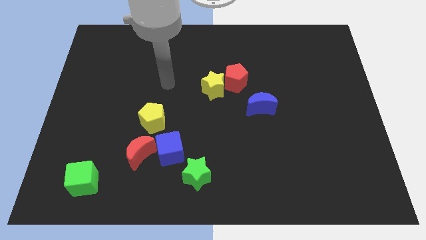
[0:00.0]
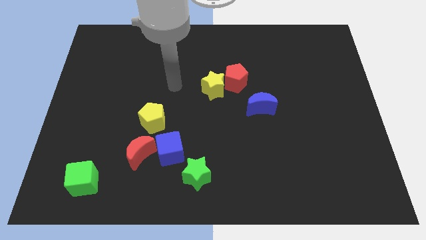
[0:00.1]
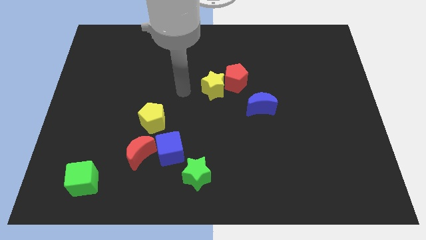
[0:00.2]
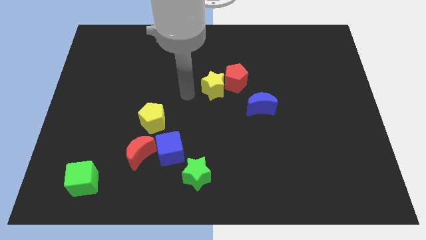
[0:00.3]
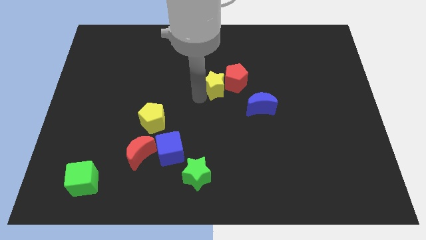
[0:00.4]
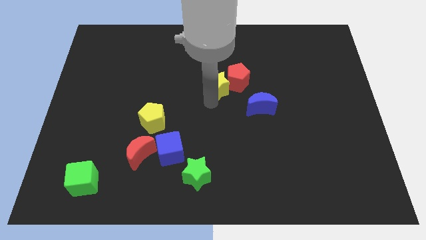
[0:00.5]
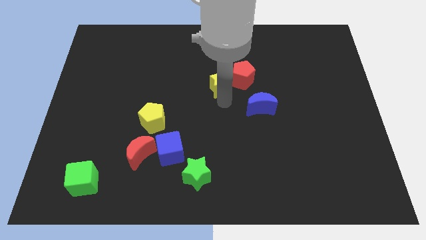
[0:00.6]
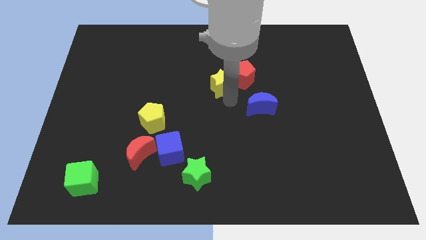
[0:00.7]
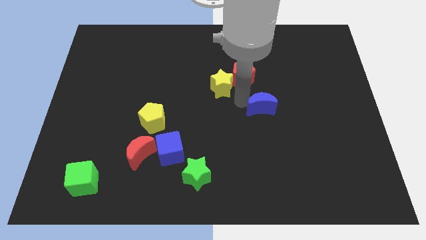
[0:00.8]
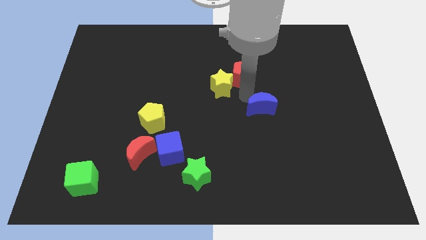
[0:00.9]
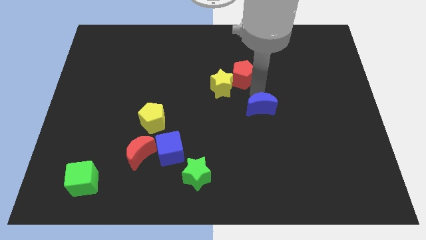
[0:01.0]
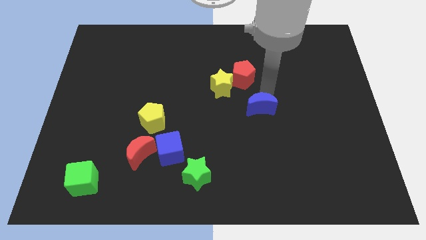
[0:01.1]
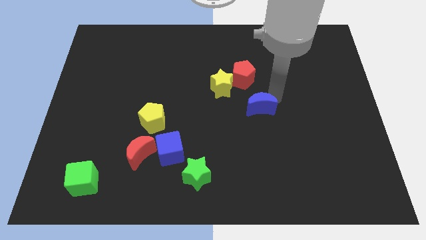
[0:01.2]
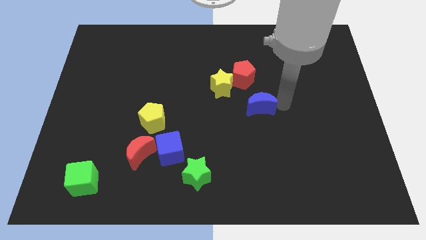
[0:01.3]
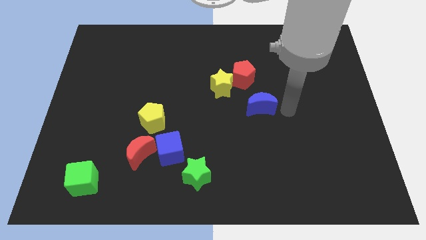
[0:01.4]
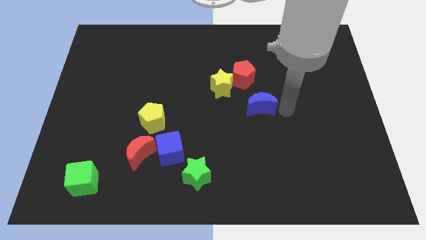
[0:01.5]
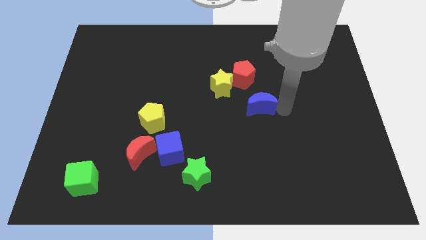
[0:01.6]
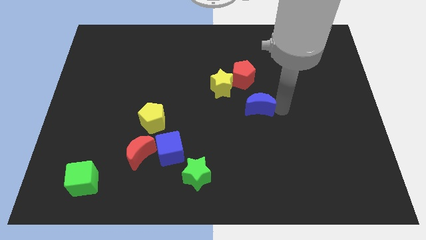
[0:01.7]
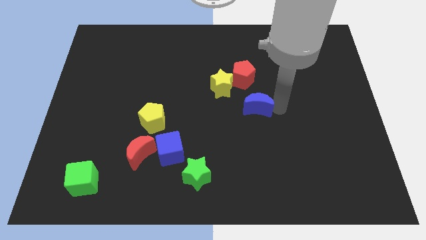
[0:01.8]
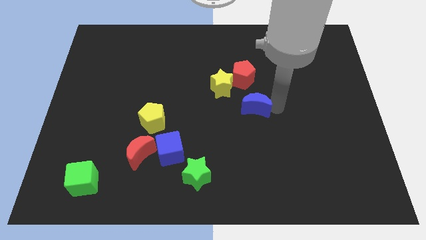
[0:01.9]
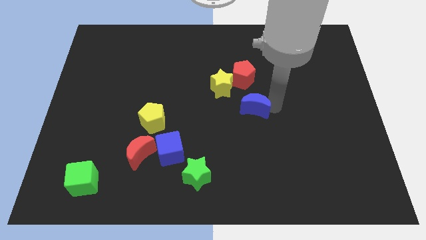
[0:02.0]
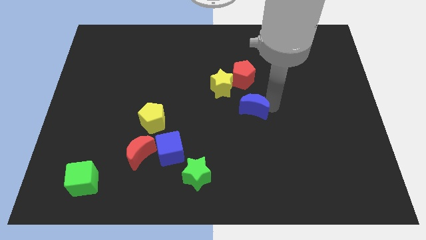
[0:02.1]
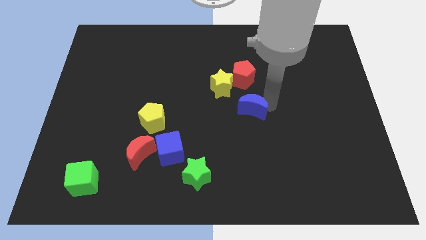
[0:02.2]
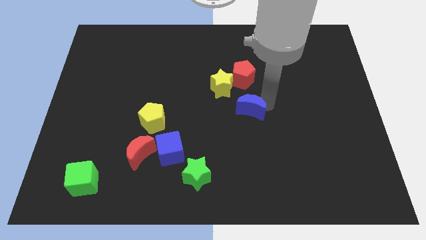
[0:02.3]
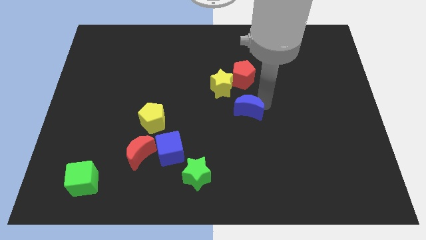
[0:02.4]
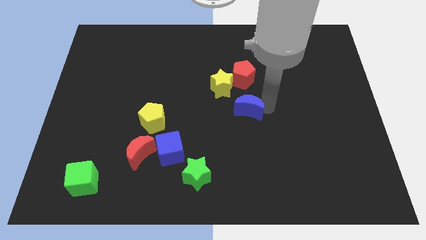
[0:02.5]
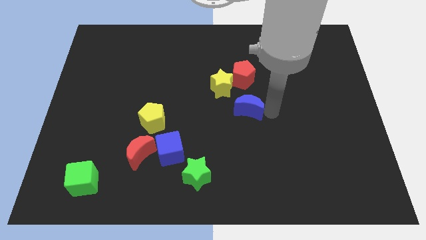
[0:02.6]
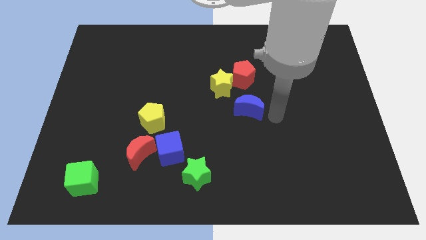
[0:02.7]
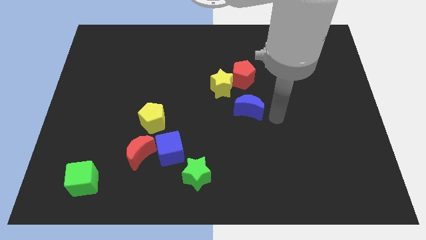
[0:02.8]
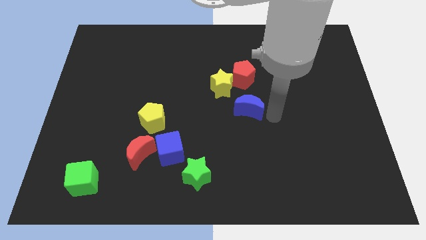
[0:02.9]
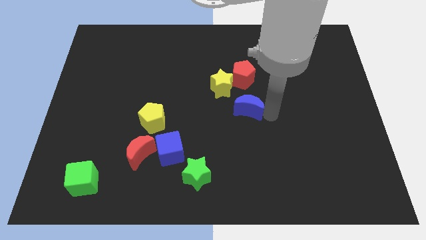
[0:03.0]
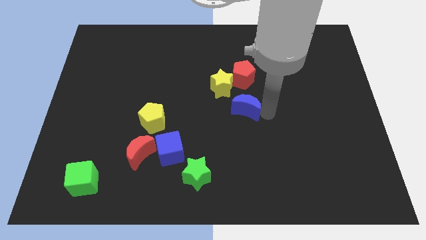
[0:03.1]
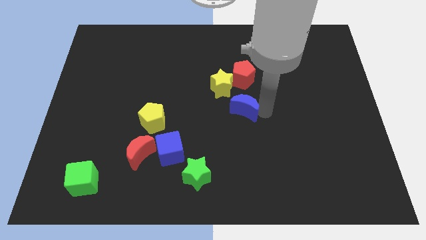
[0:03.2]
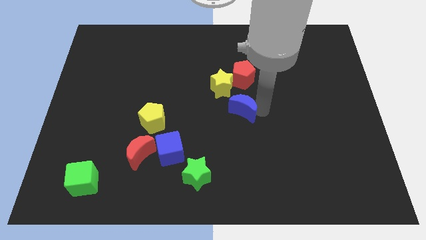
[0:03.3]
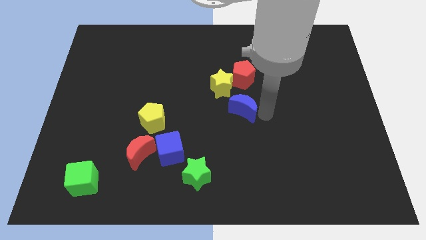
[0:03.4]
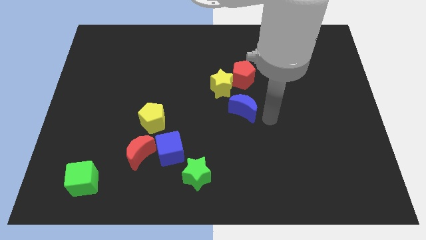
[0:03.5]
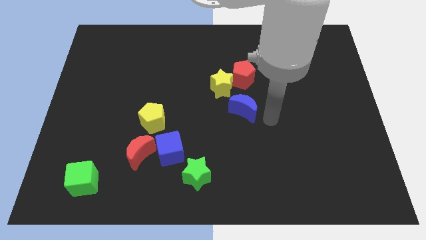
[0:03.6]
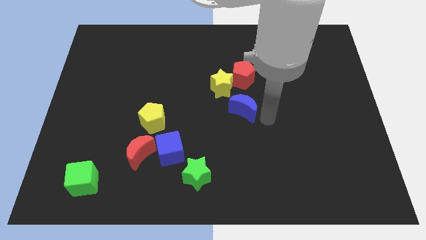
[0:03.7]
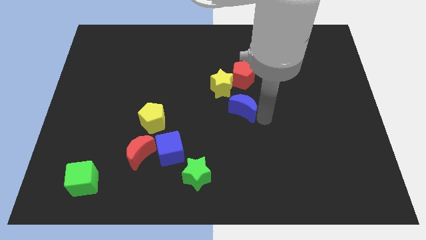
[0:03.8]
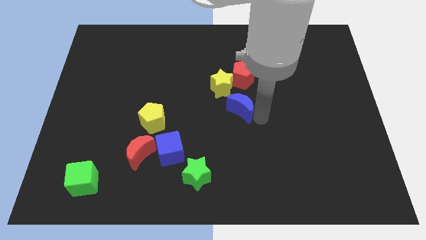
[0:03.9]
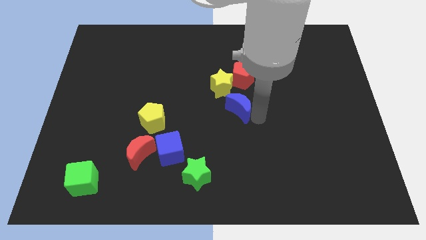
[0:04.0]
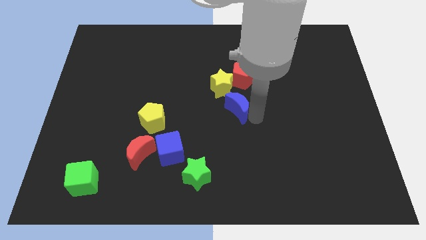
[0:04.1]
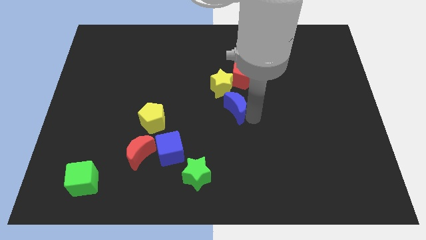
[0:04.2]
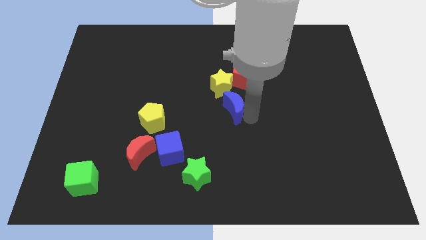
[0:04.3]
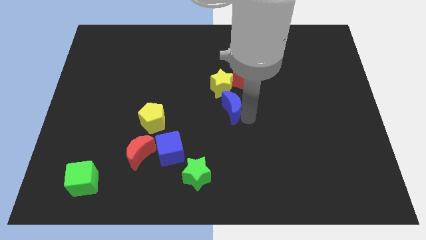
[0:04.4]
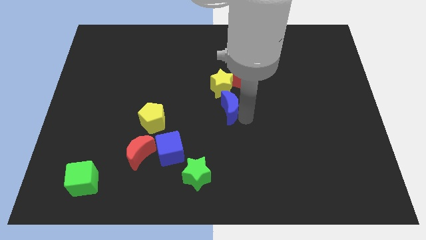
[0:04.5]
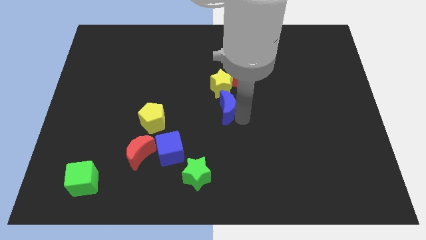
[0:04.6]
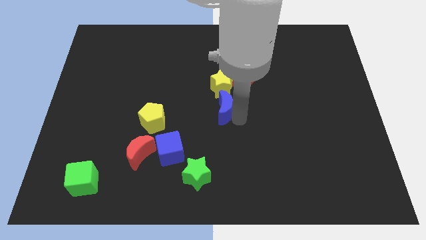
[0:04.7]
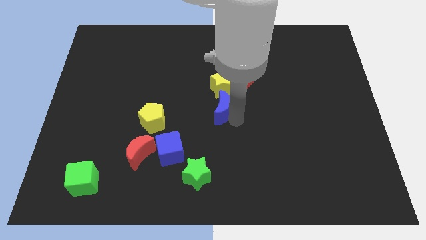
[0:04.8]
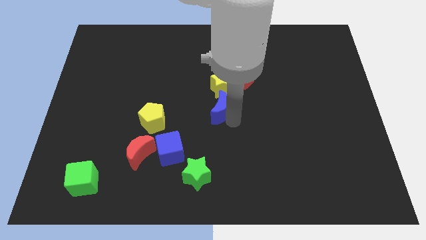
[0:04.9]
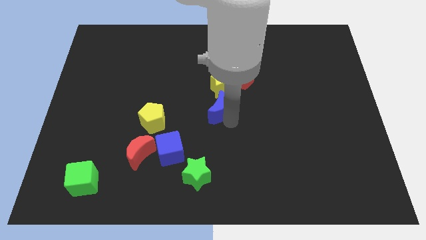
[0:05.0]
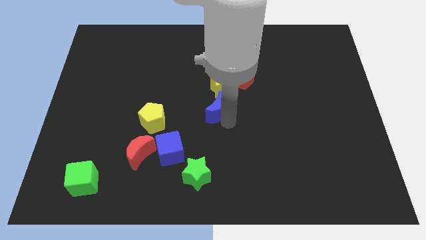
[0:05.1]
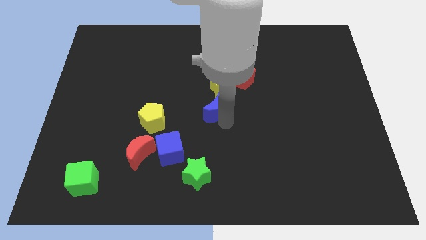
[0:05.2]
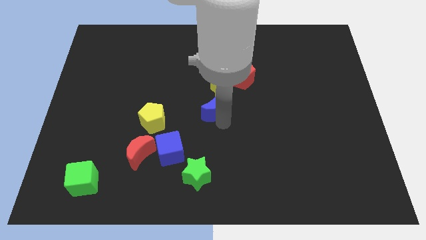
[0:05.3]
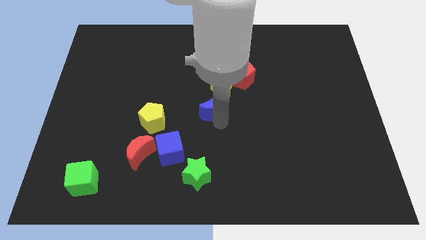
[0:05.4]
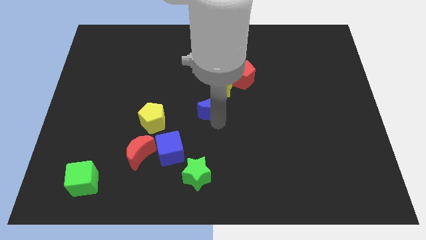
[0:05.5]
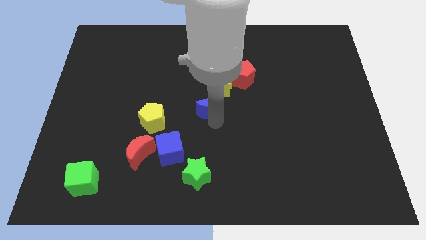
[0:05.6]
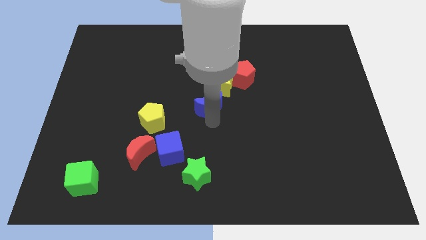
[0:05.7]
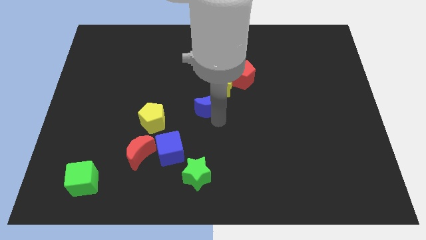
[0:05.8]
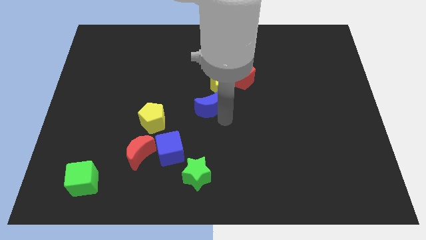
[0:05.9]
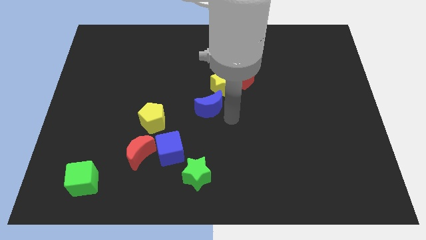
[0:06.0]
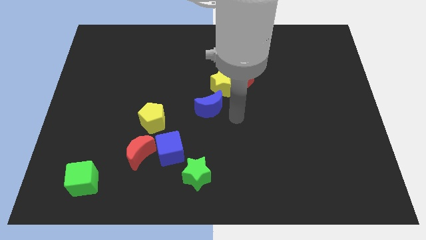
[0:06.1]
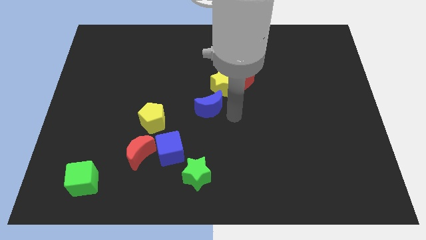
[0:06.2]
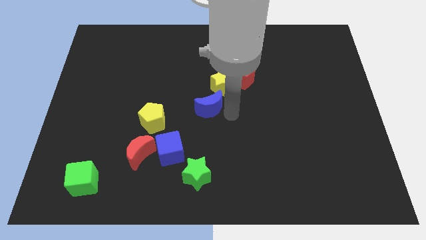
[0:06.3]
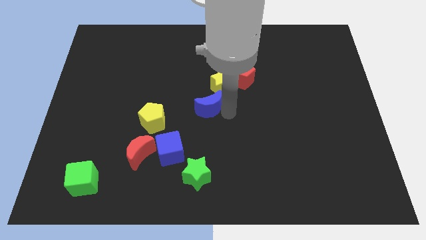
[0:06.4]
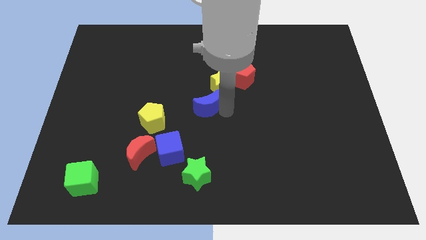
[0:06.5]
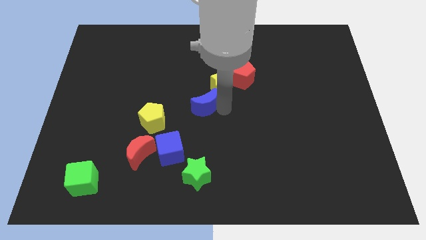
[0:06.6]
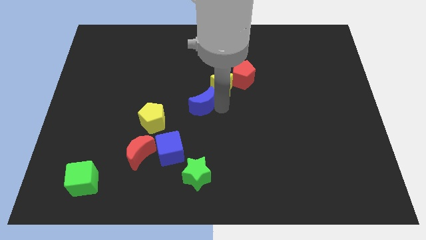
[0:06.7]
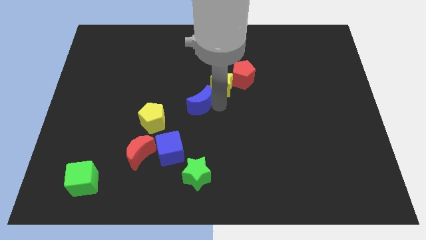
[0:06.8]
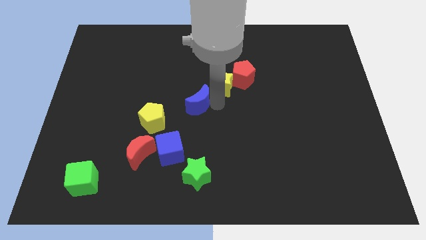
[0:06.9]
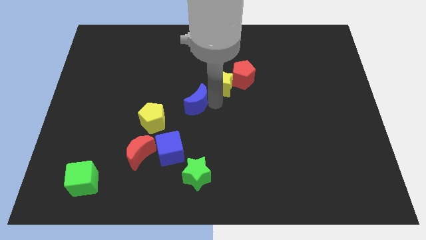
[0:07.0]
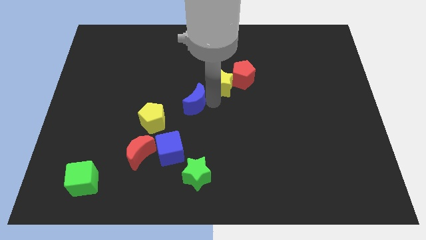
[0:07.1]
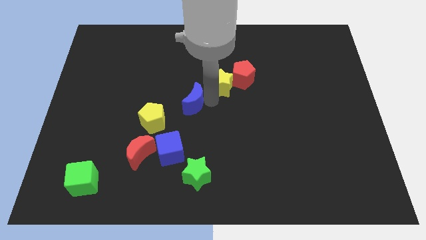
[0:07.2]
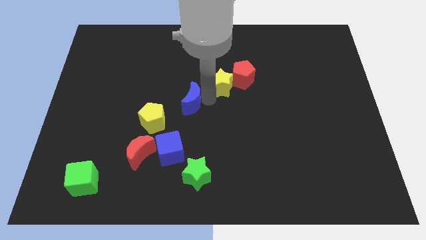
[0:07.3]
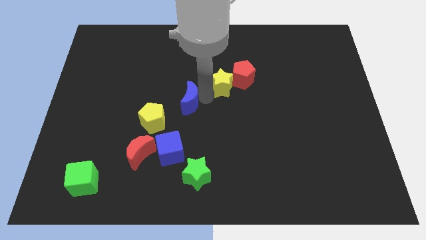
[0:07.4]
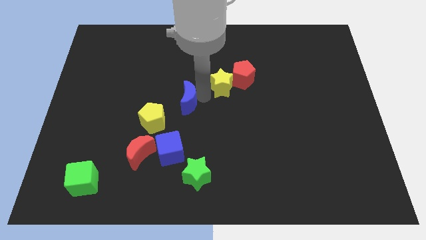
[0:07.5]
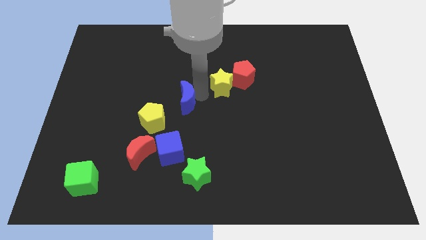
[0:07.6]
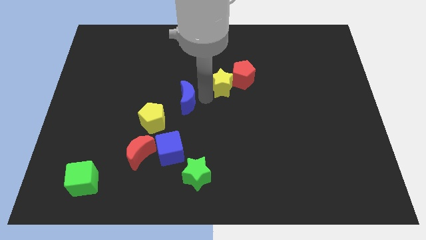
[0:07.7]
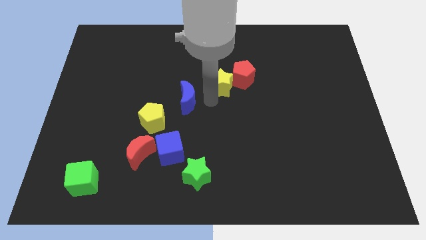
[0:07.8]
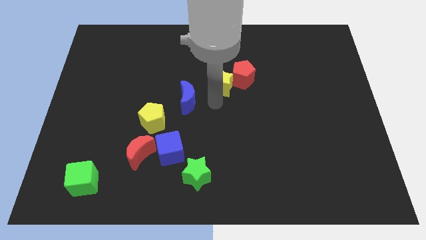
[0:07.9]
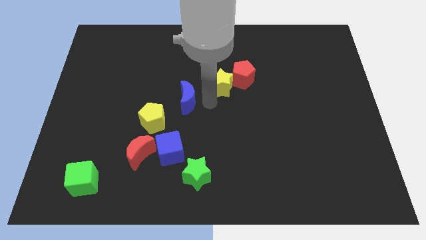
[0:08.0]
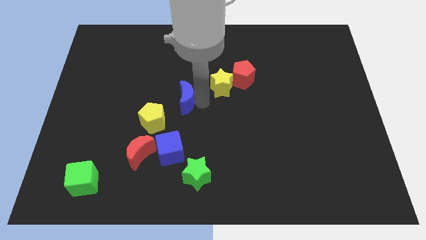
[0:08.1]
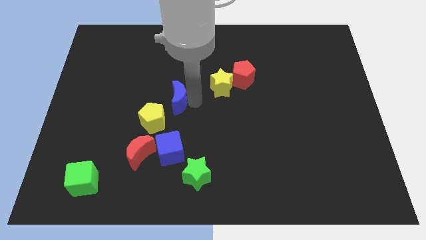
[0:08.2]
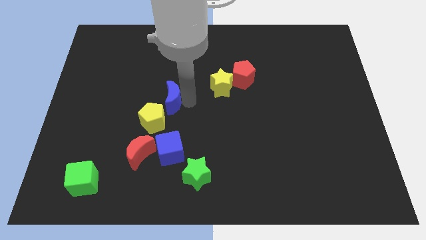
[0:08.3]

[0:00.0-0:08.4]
push the blue moon to the left
